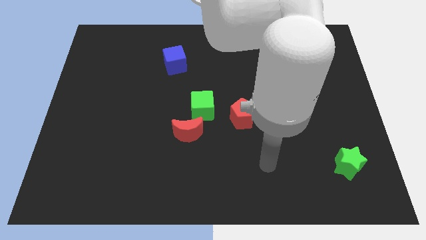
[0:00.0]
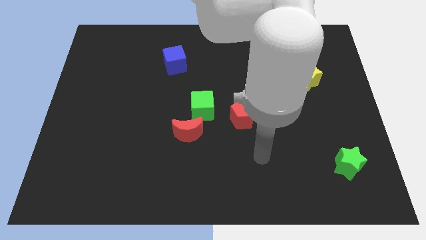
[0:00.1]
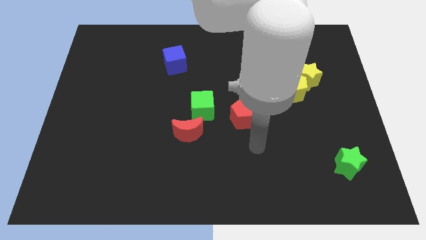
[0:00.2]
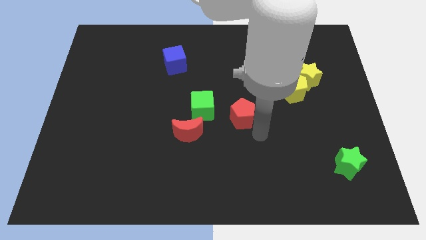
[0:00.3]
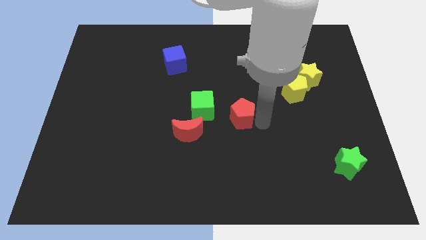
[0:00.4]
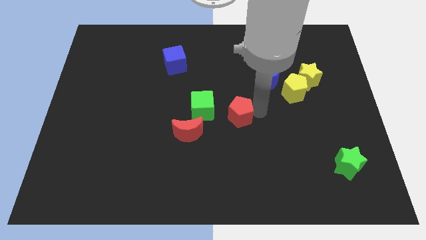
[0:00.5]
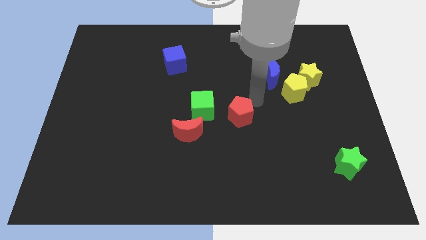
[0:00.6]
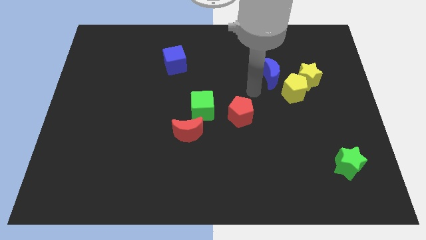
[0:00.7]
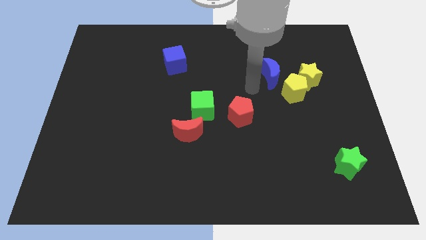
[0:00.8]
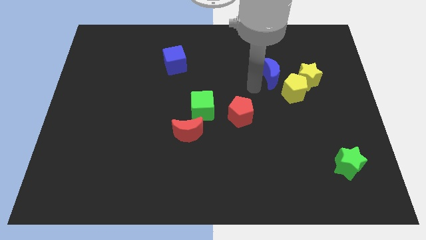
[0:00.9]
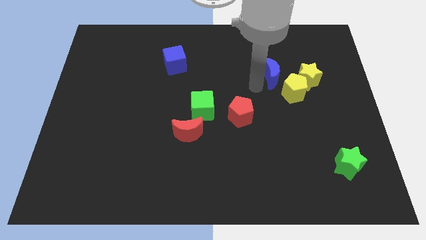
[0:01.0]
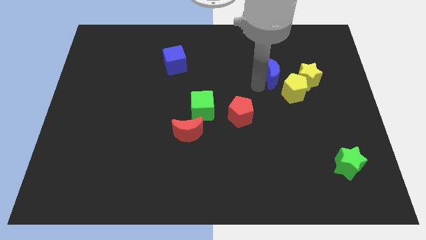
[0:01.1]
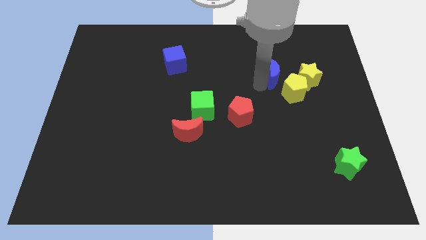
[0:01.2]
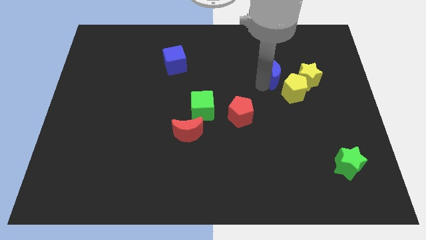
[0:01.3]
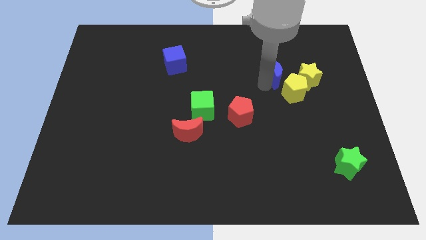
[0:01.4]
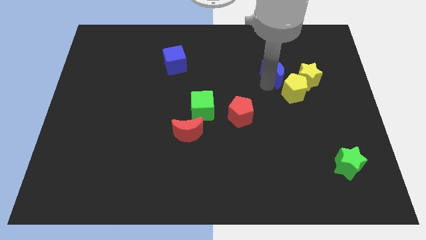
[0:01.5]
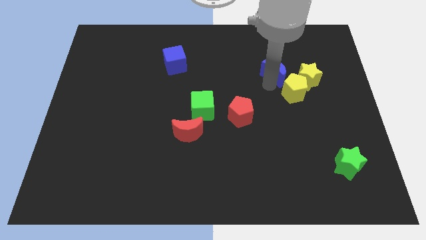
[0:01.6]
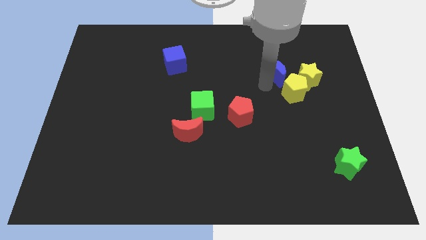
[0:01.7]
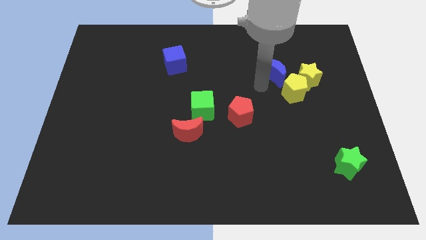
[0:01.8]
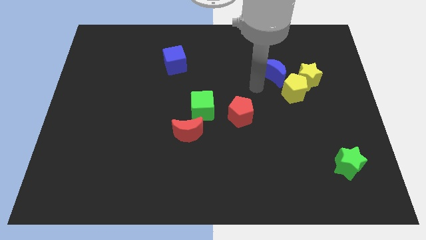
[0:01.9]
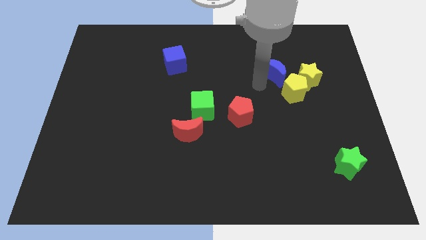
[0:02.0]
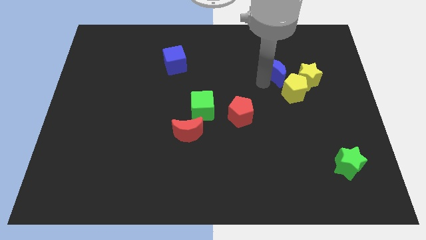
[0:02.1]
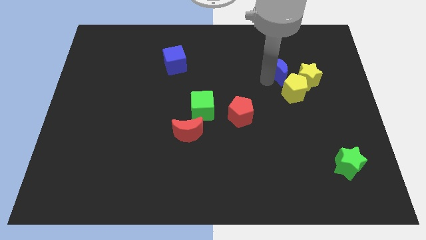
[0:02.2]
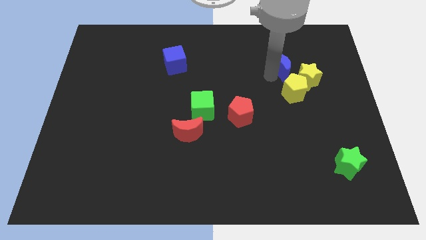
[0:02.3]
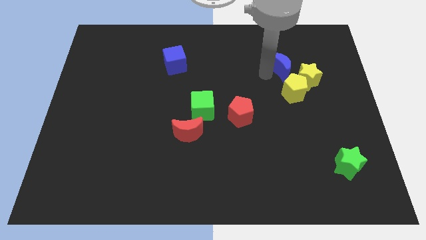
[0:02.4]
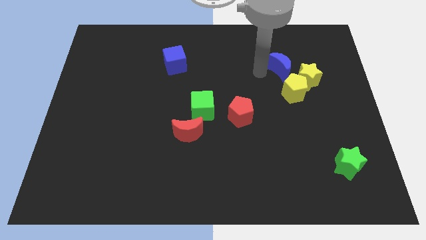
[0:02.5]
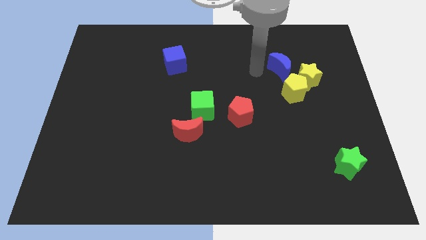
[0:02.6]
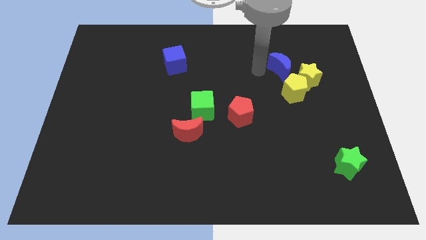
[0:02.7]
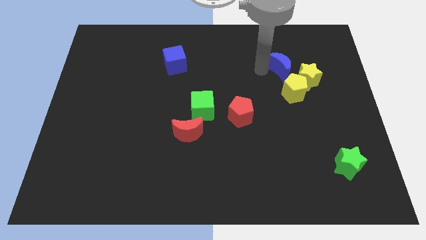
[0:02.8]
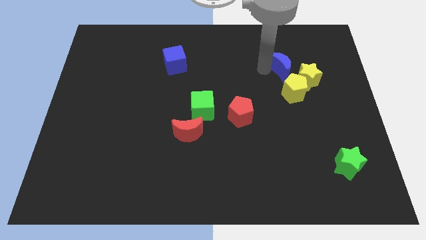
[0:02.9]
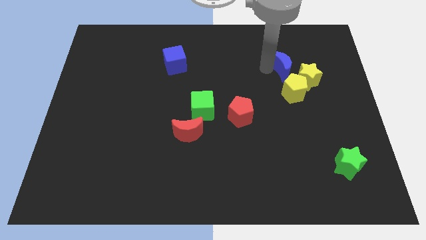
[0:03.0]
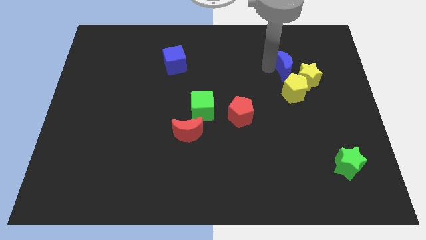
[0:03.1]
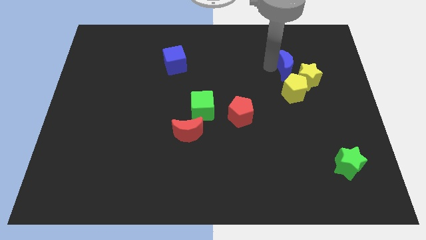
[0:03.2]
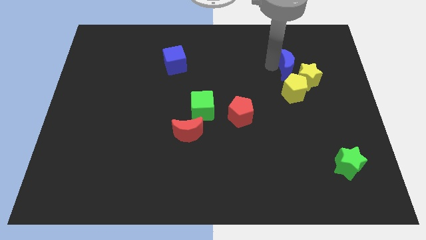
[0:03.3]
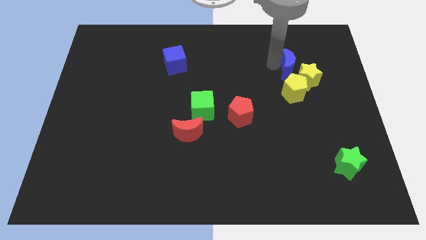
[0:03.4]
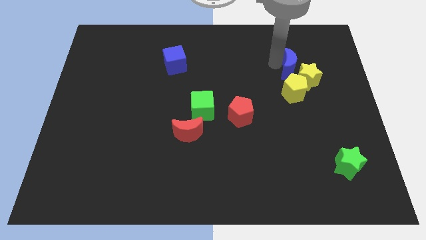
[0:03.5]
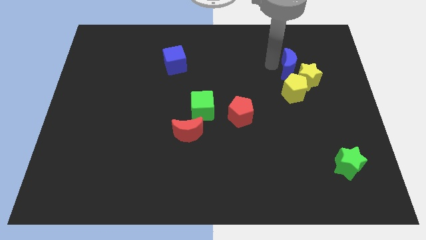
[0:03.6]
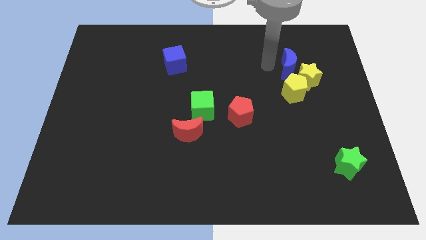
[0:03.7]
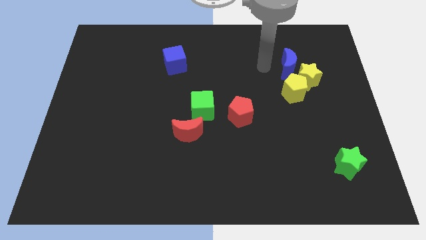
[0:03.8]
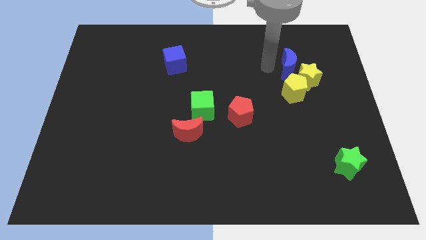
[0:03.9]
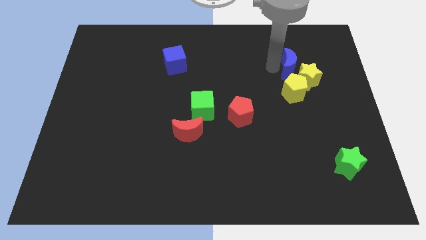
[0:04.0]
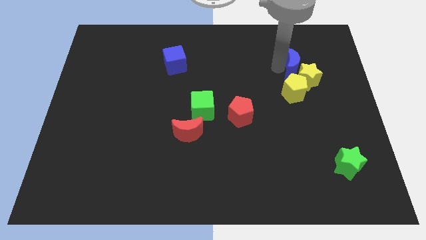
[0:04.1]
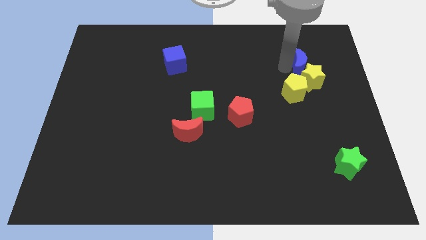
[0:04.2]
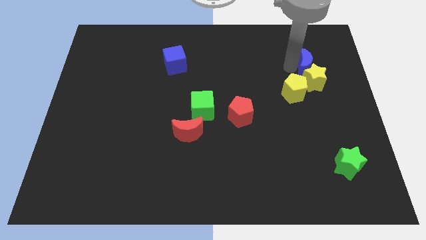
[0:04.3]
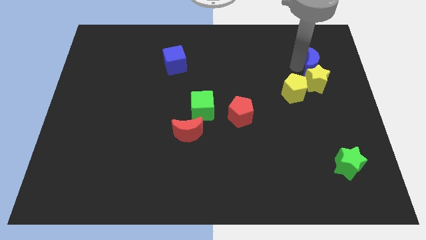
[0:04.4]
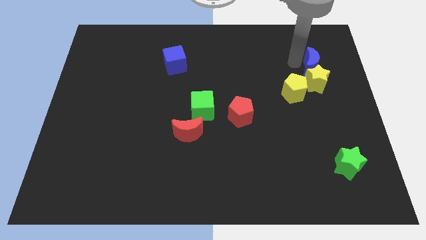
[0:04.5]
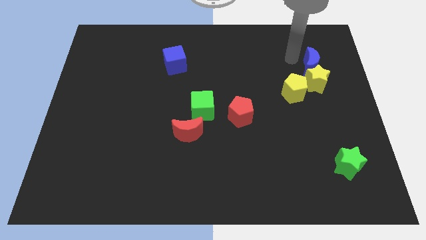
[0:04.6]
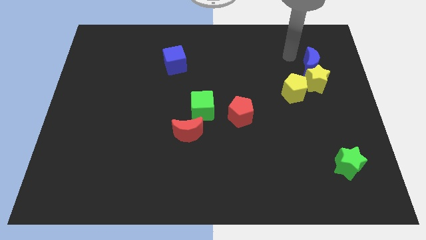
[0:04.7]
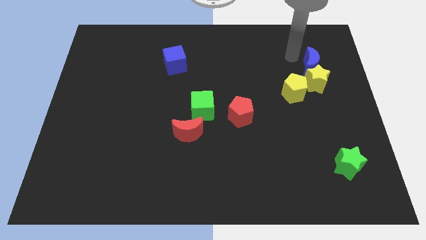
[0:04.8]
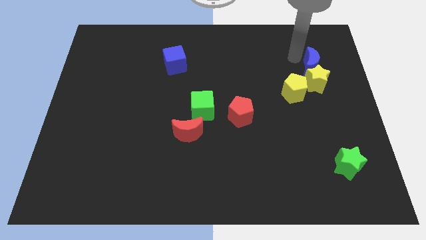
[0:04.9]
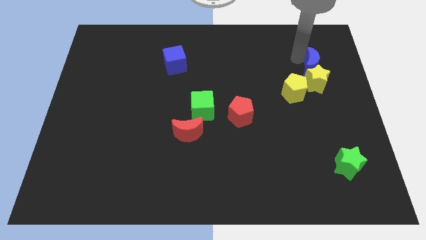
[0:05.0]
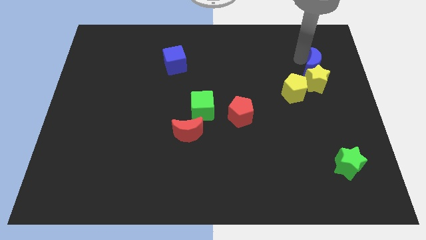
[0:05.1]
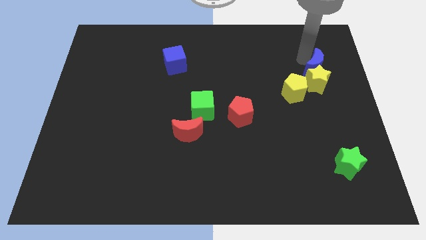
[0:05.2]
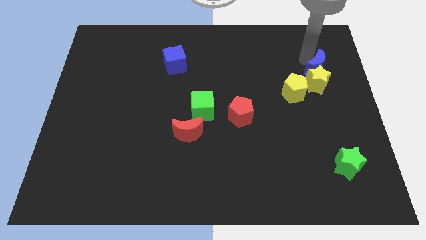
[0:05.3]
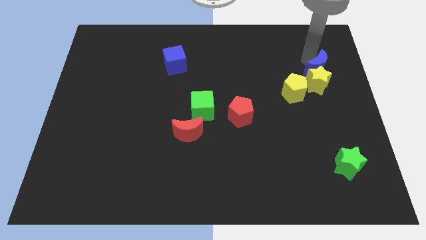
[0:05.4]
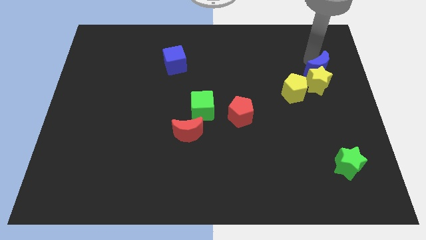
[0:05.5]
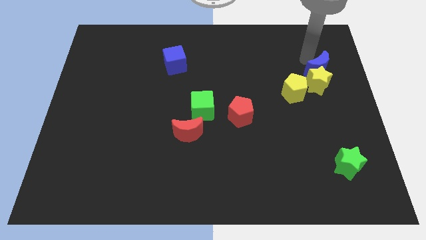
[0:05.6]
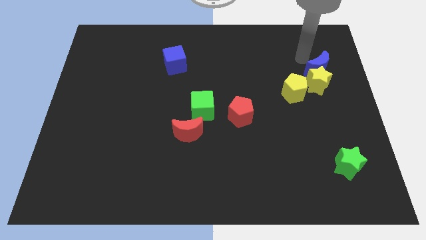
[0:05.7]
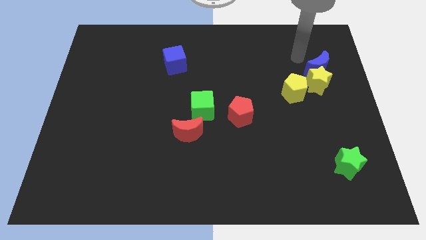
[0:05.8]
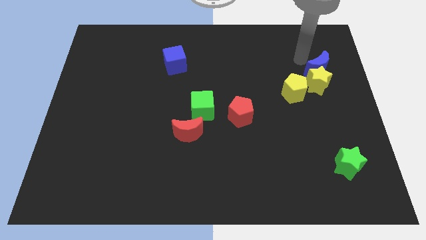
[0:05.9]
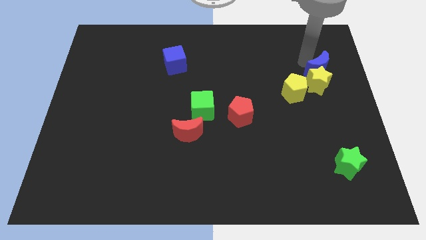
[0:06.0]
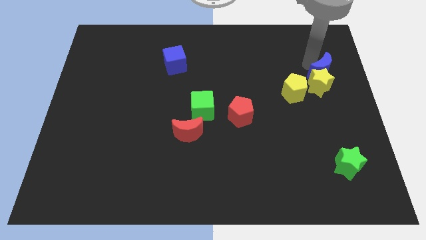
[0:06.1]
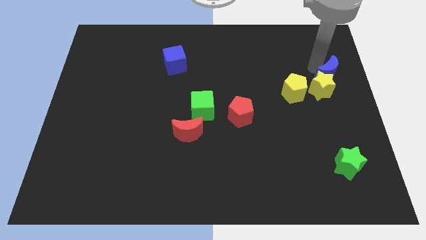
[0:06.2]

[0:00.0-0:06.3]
move the blue moon to the right side

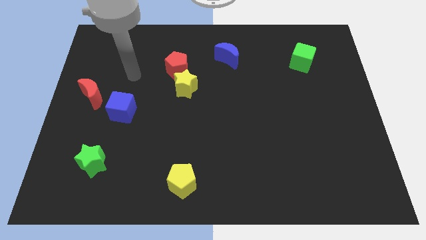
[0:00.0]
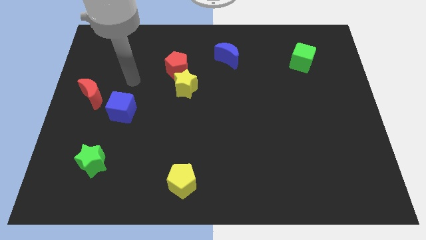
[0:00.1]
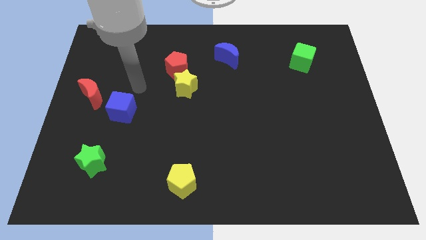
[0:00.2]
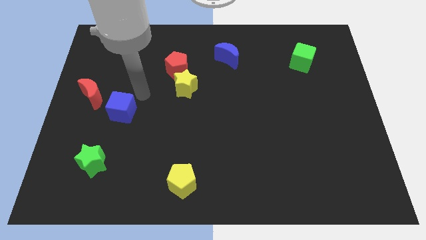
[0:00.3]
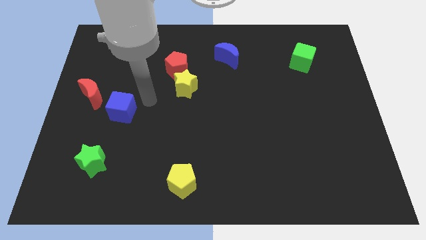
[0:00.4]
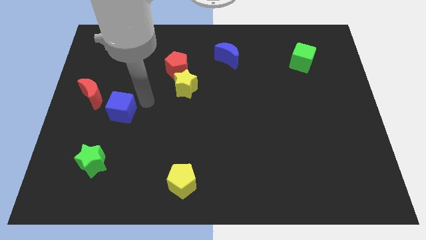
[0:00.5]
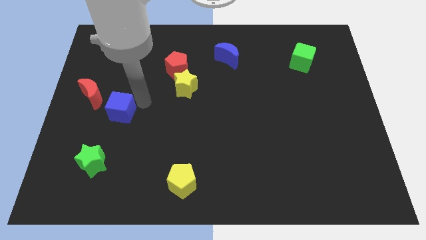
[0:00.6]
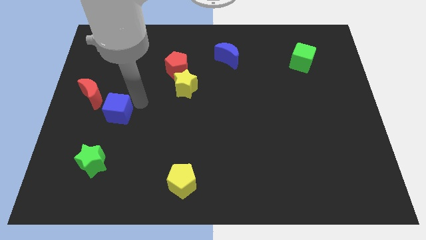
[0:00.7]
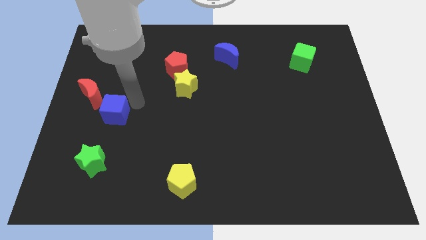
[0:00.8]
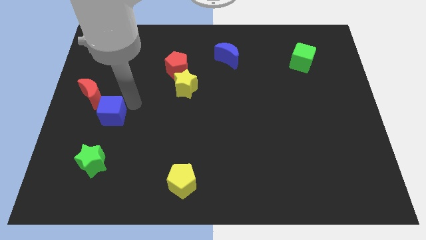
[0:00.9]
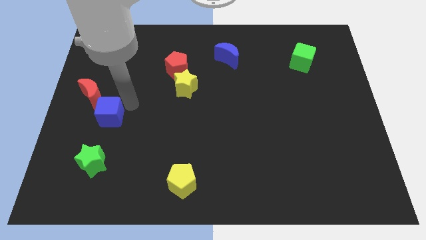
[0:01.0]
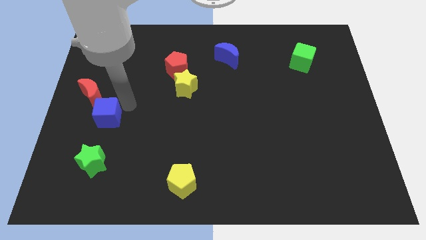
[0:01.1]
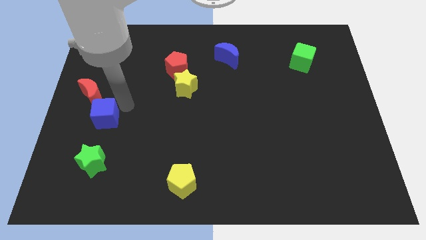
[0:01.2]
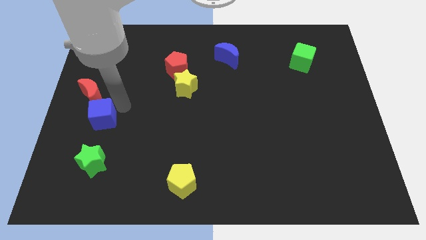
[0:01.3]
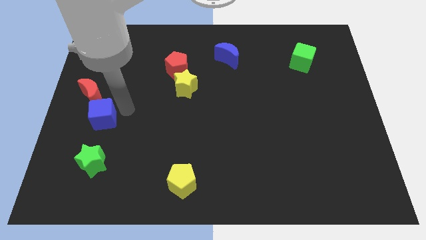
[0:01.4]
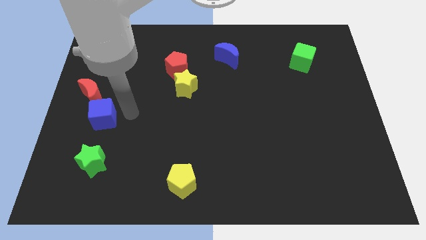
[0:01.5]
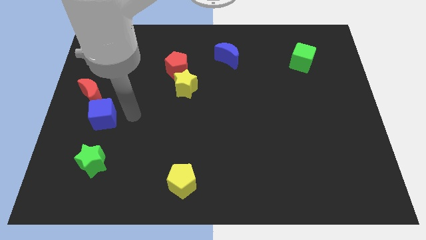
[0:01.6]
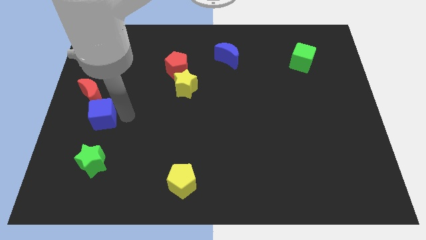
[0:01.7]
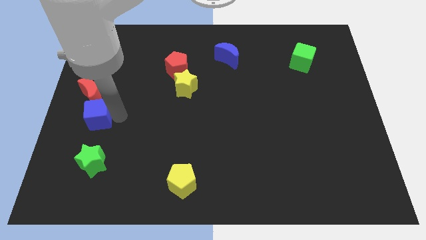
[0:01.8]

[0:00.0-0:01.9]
put the blue cube to the center left
